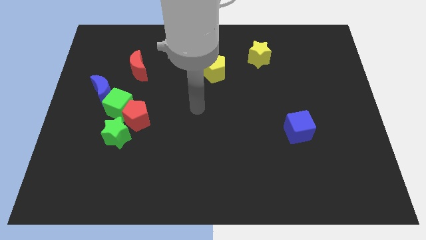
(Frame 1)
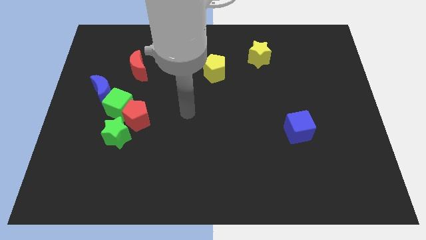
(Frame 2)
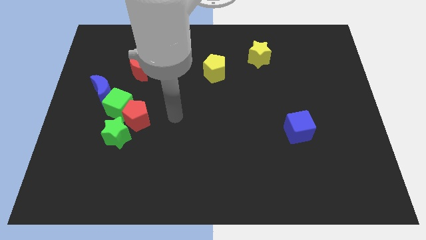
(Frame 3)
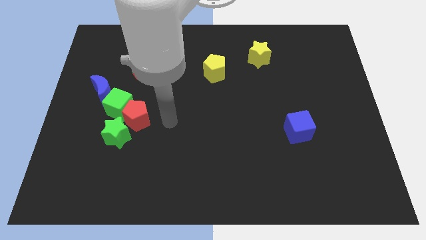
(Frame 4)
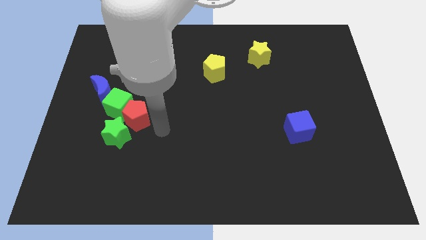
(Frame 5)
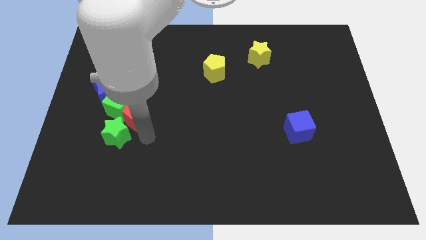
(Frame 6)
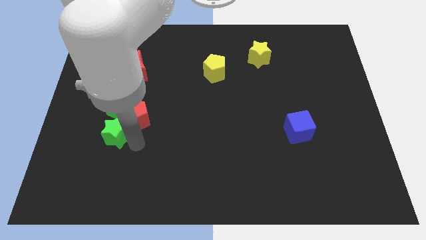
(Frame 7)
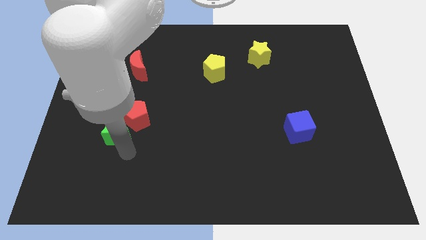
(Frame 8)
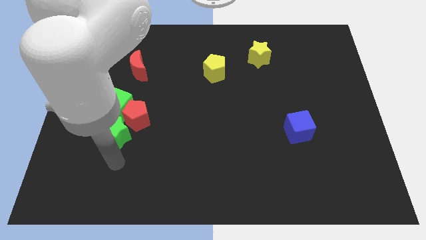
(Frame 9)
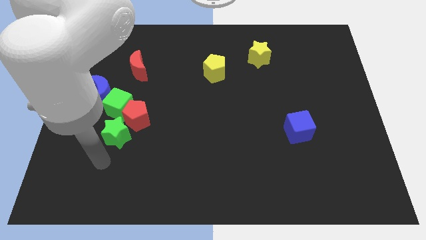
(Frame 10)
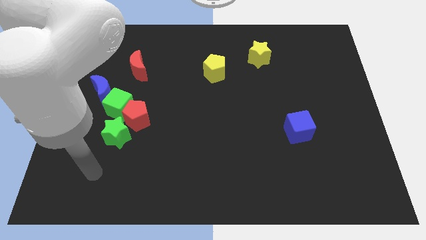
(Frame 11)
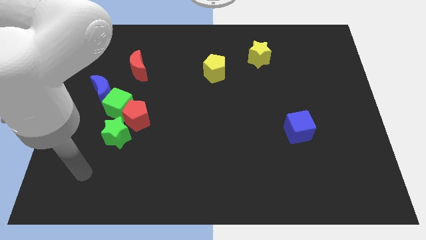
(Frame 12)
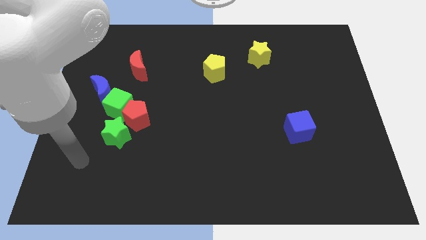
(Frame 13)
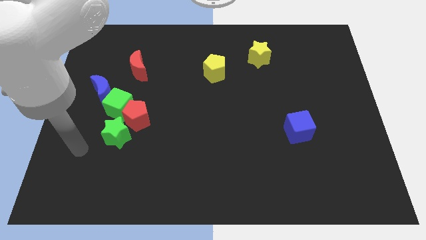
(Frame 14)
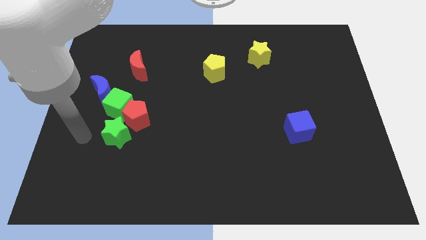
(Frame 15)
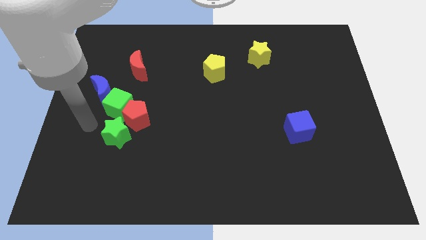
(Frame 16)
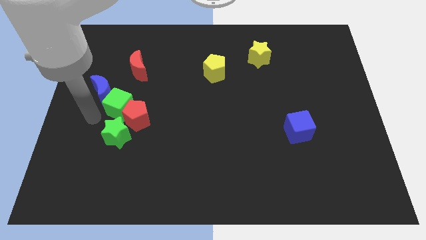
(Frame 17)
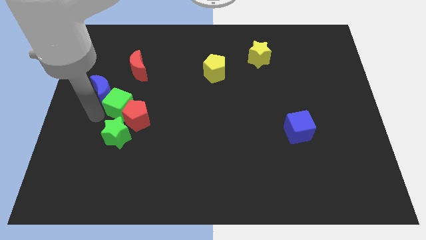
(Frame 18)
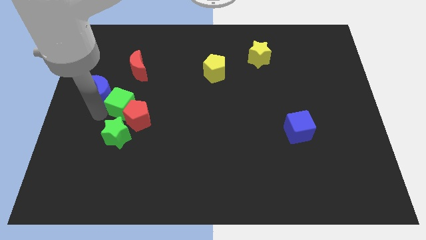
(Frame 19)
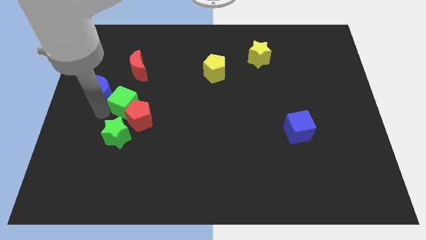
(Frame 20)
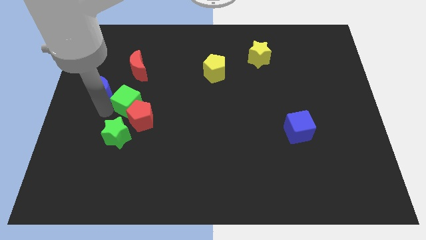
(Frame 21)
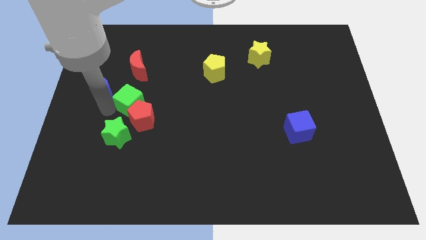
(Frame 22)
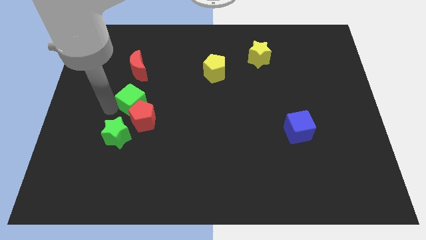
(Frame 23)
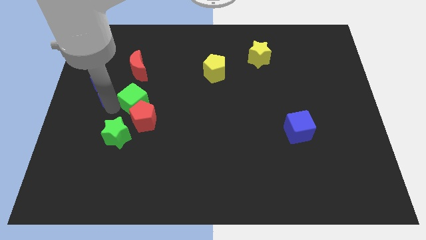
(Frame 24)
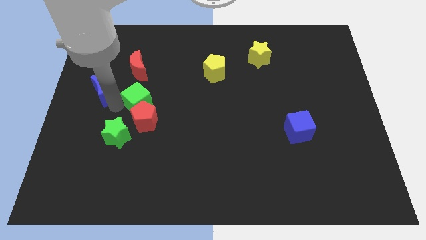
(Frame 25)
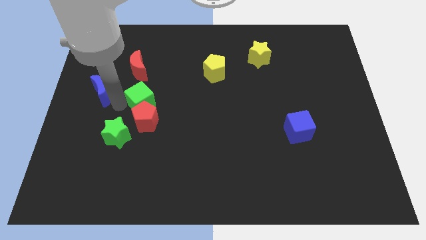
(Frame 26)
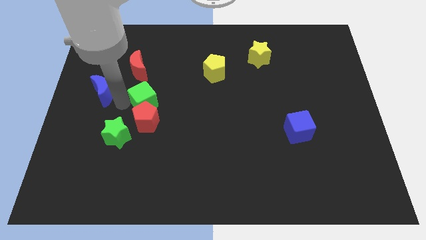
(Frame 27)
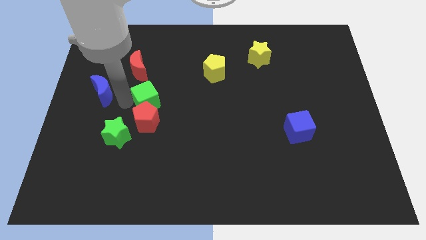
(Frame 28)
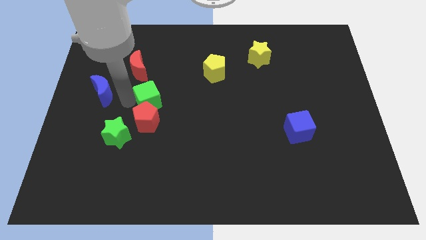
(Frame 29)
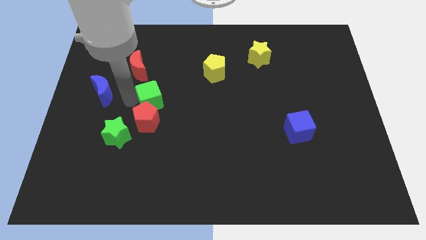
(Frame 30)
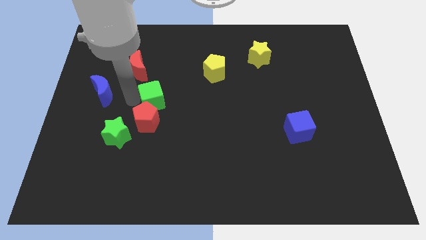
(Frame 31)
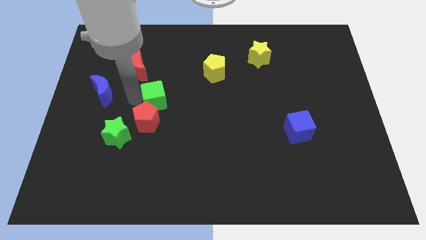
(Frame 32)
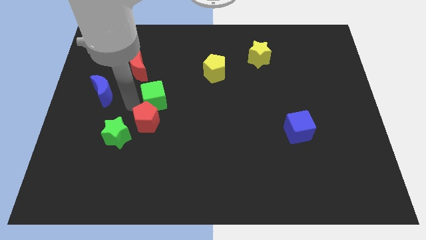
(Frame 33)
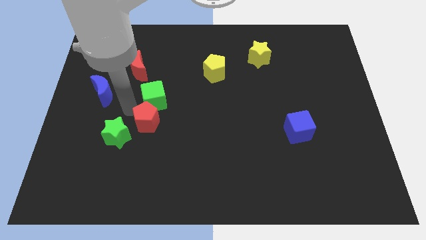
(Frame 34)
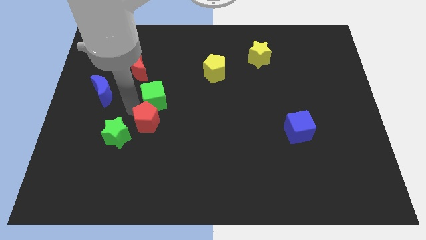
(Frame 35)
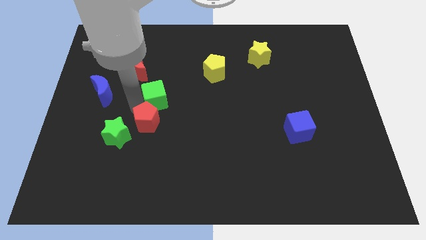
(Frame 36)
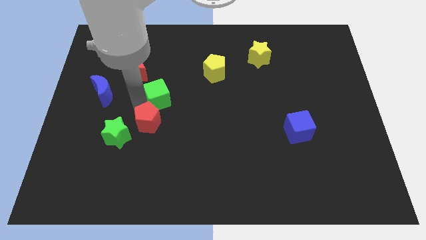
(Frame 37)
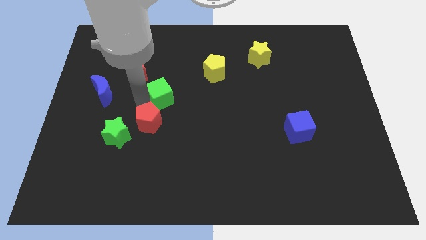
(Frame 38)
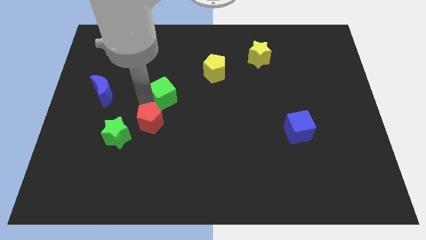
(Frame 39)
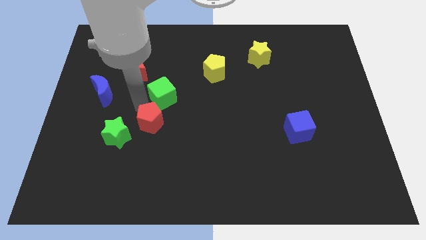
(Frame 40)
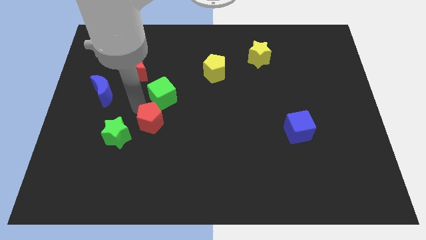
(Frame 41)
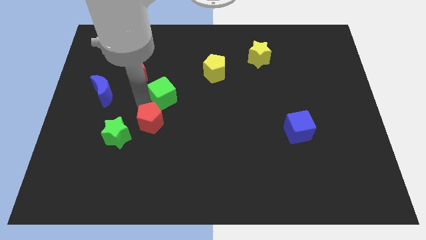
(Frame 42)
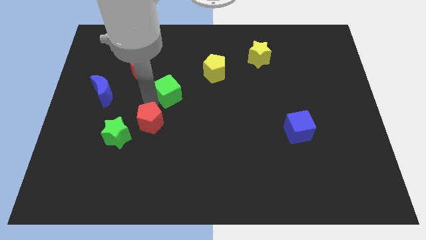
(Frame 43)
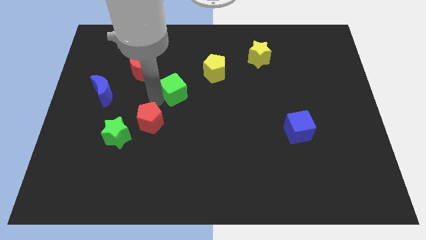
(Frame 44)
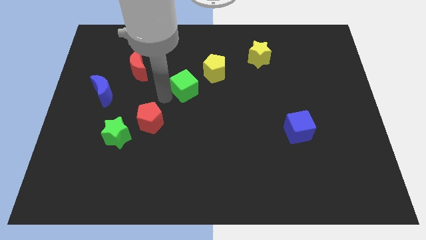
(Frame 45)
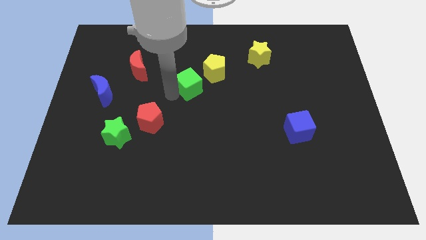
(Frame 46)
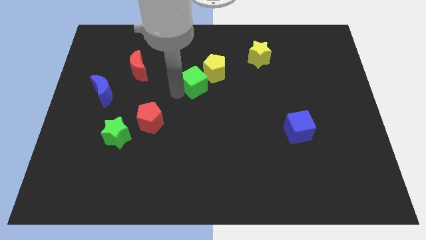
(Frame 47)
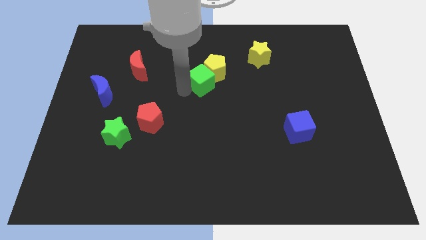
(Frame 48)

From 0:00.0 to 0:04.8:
move the green cube towards the yellow pentagon

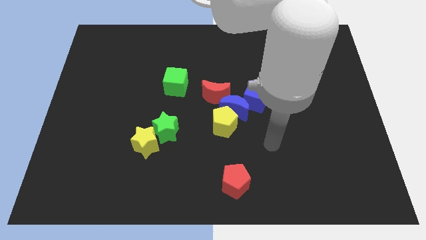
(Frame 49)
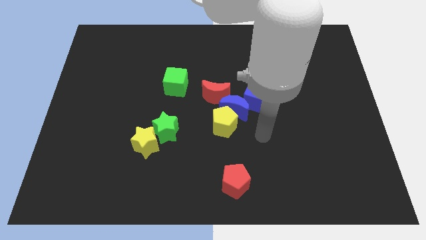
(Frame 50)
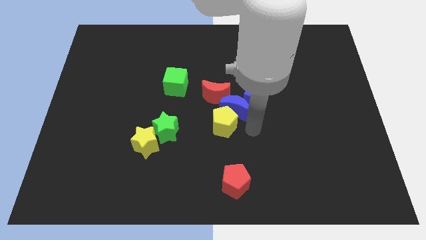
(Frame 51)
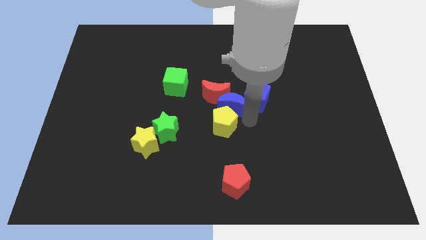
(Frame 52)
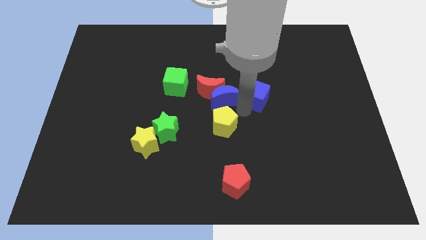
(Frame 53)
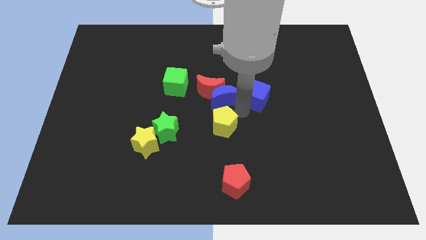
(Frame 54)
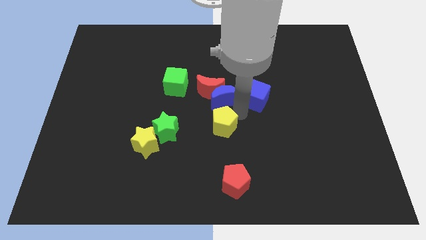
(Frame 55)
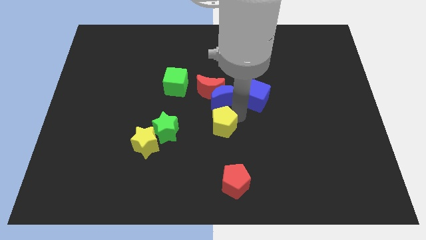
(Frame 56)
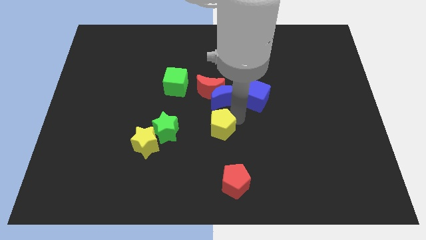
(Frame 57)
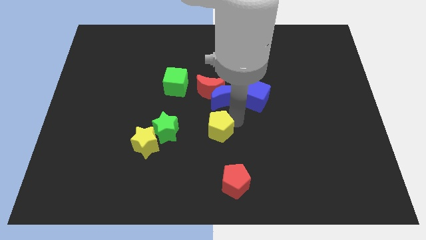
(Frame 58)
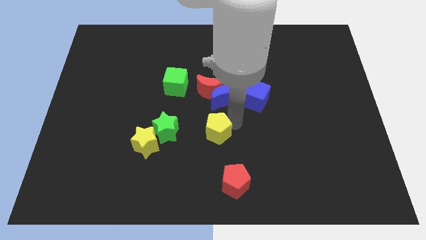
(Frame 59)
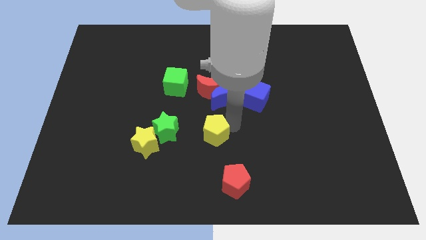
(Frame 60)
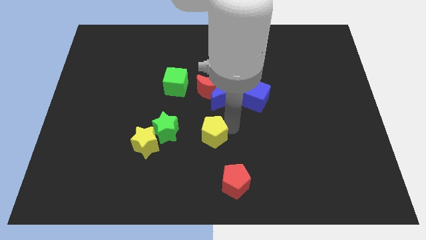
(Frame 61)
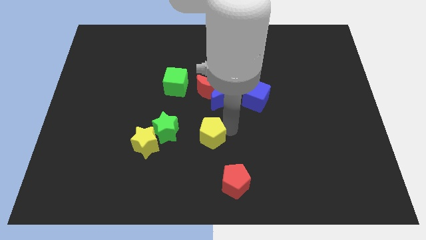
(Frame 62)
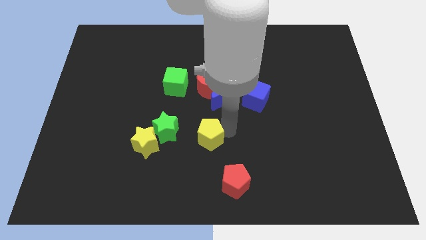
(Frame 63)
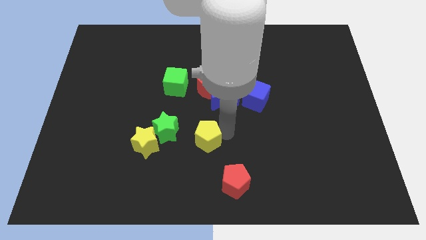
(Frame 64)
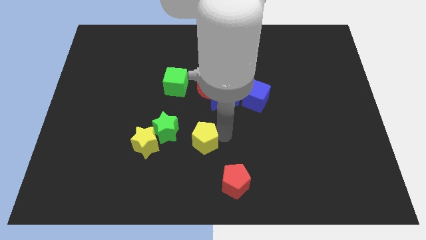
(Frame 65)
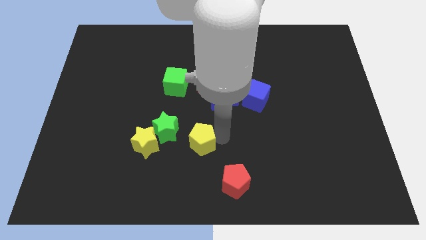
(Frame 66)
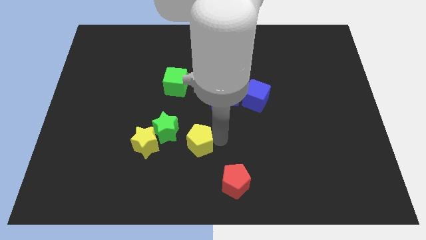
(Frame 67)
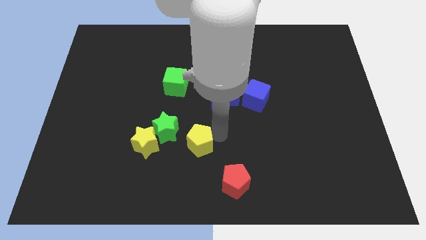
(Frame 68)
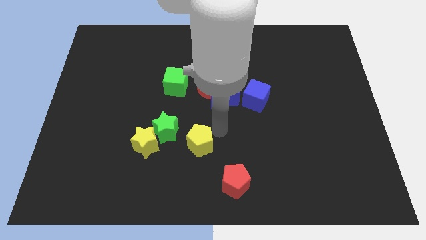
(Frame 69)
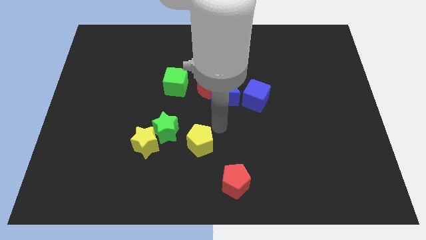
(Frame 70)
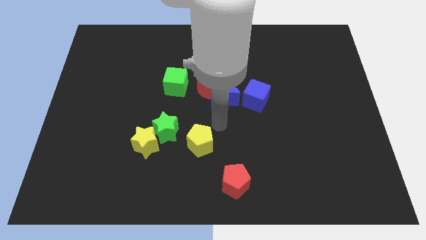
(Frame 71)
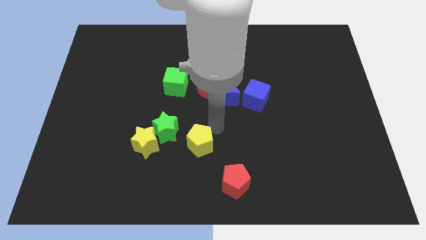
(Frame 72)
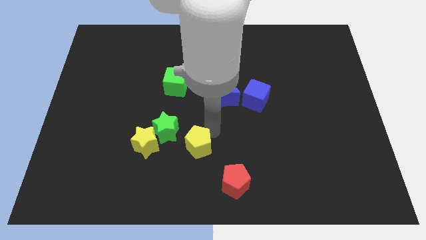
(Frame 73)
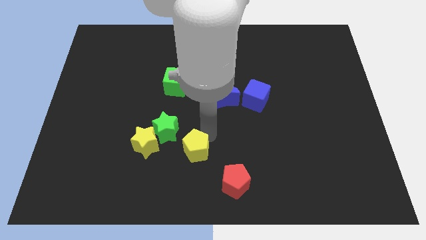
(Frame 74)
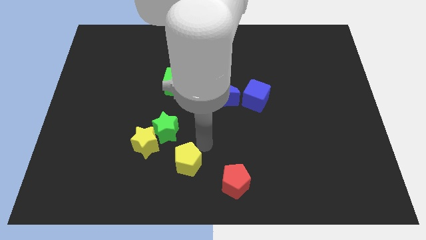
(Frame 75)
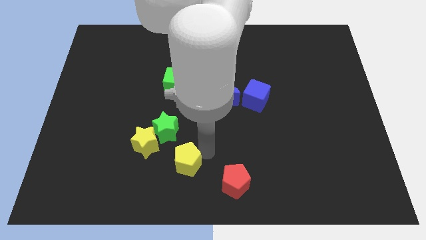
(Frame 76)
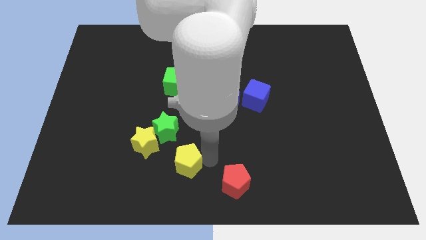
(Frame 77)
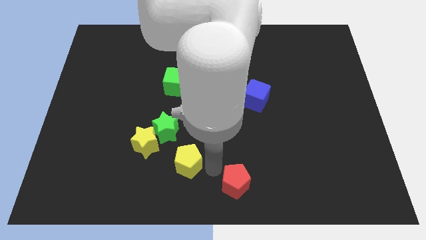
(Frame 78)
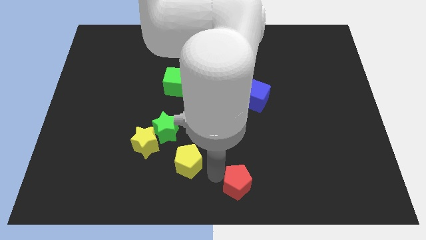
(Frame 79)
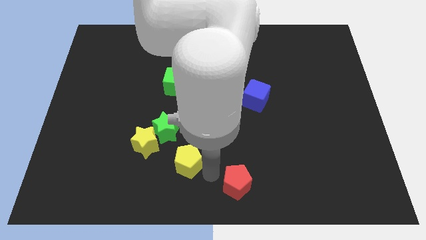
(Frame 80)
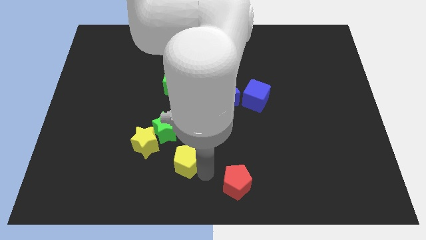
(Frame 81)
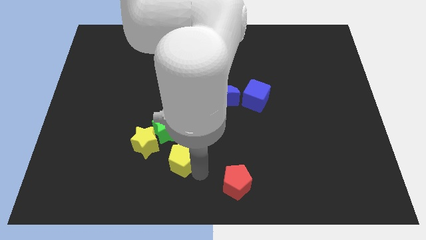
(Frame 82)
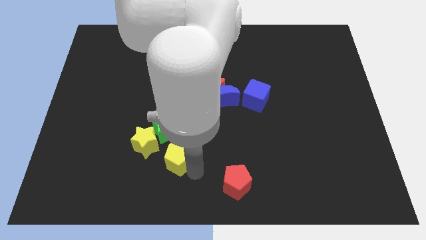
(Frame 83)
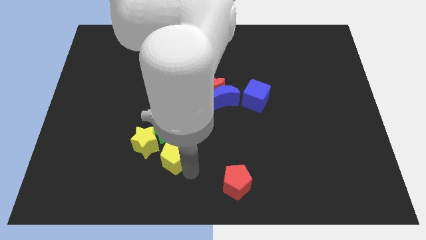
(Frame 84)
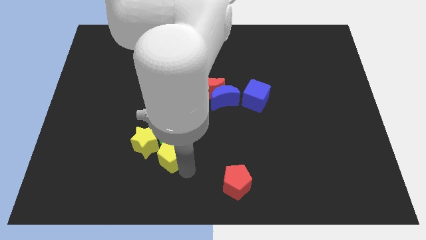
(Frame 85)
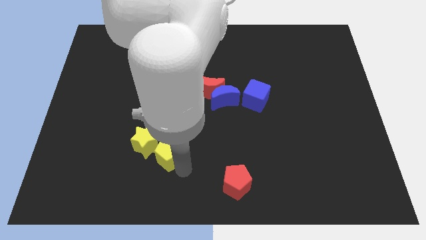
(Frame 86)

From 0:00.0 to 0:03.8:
slide the yellow pentagon to the yellow star
